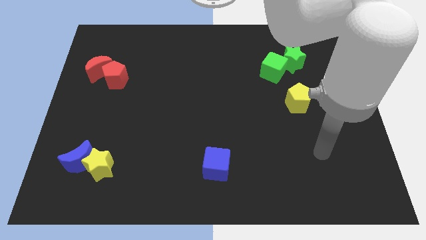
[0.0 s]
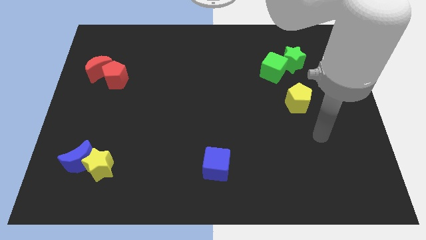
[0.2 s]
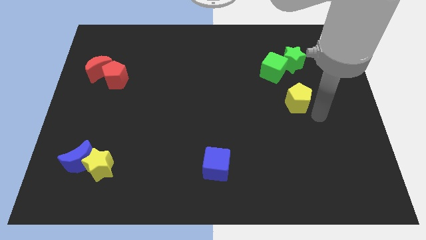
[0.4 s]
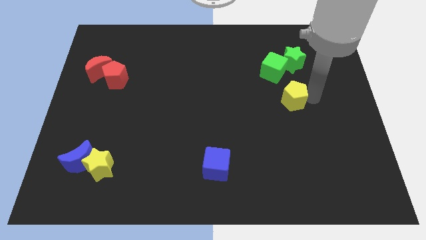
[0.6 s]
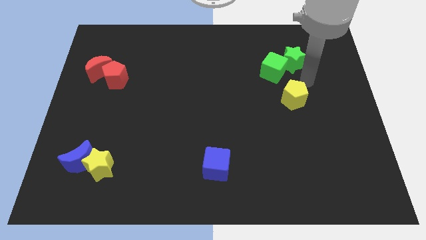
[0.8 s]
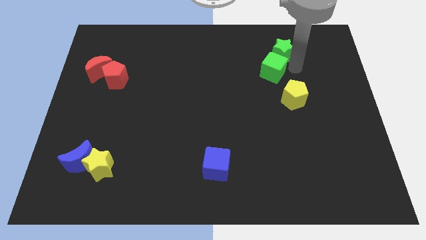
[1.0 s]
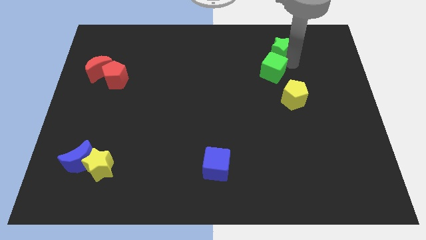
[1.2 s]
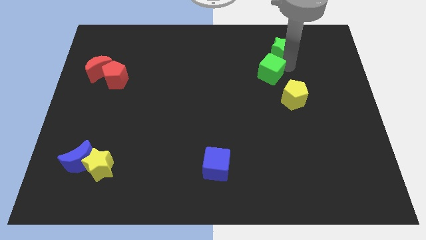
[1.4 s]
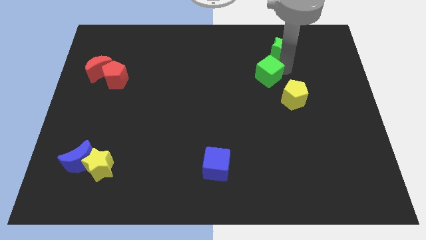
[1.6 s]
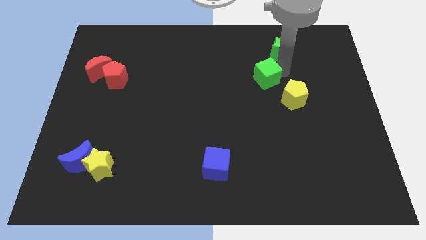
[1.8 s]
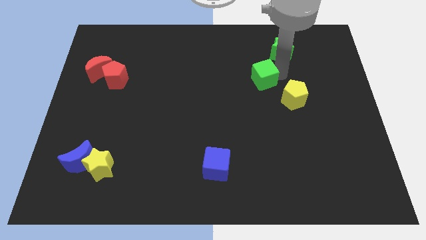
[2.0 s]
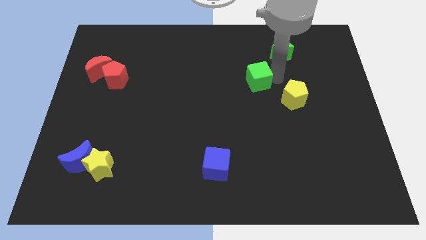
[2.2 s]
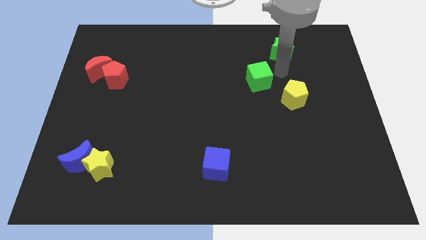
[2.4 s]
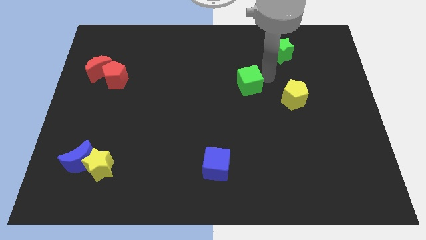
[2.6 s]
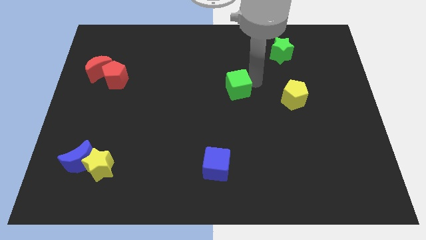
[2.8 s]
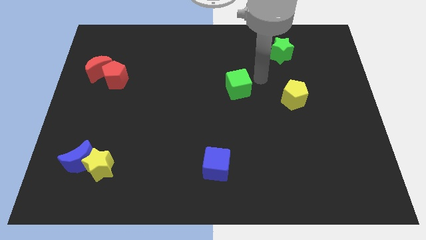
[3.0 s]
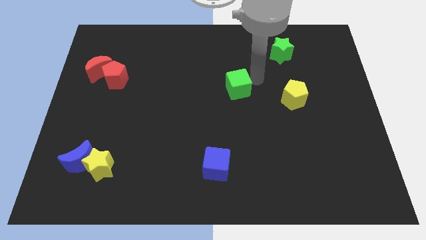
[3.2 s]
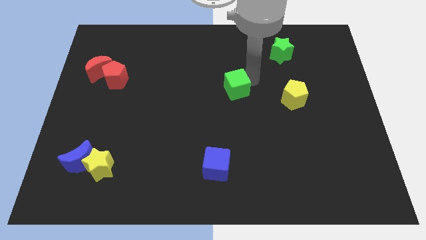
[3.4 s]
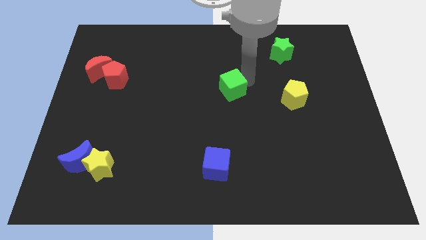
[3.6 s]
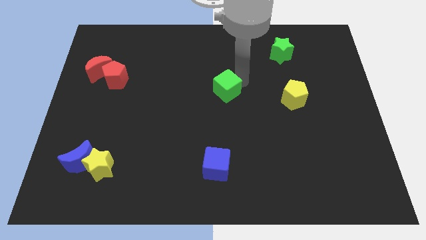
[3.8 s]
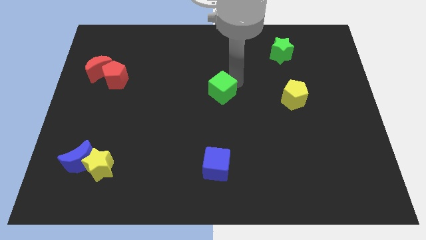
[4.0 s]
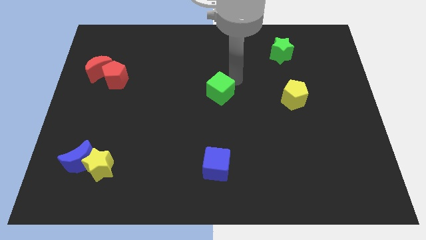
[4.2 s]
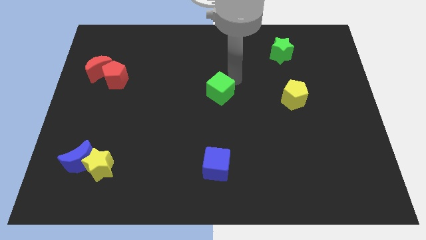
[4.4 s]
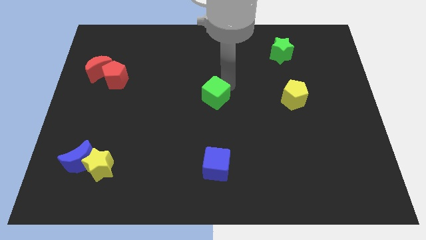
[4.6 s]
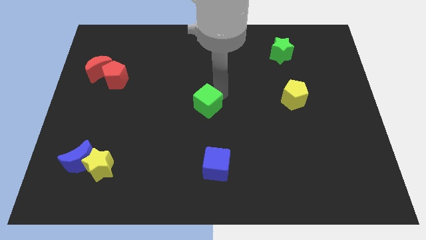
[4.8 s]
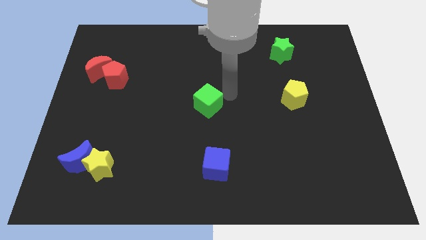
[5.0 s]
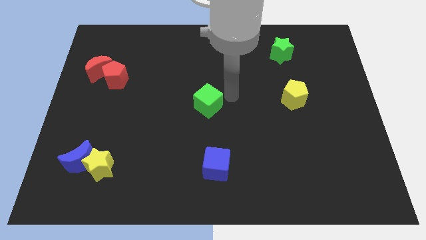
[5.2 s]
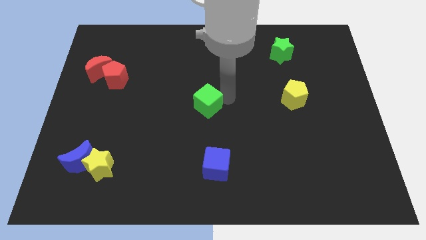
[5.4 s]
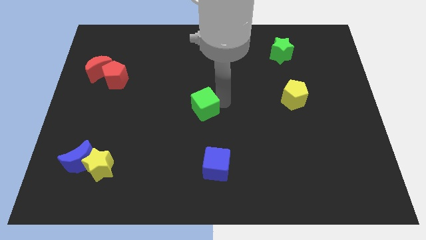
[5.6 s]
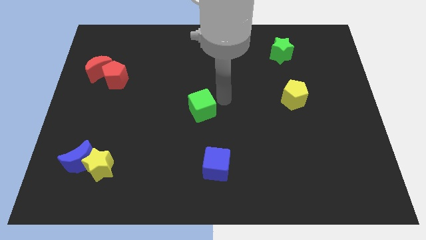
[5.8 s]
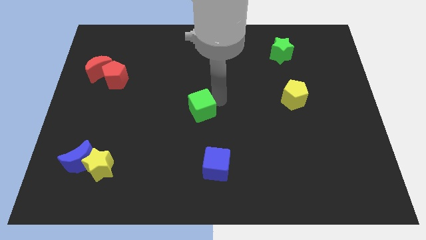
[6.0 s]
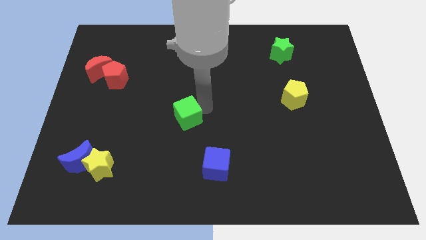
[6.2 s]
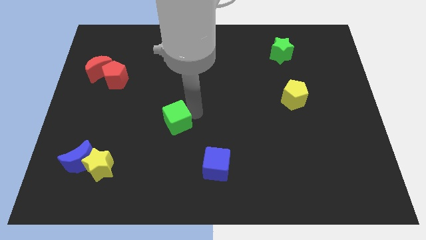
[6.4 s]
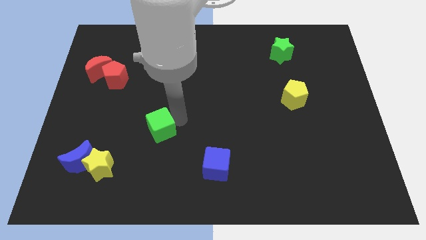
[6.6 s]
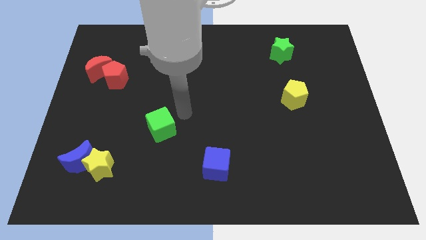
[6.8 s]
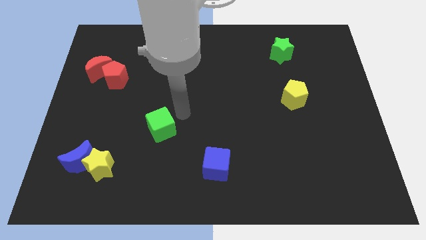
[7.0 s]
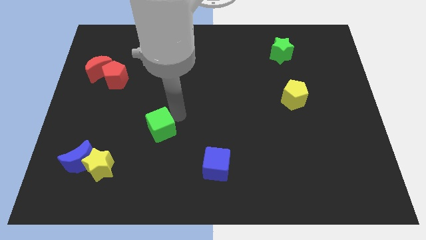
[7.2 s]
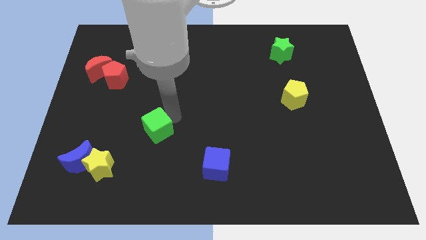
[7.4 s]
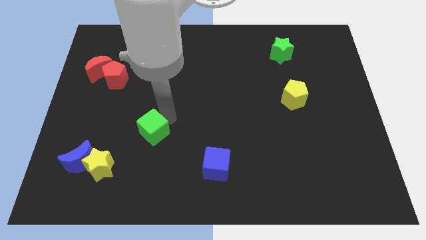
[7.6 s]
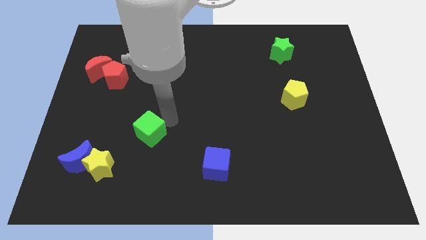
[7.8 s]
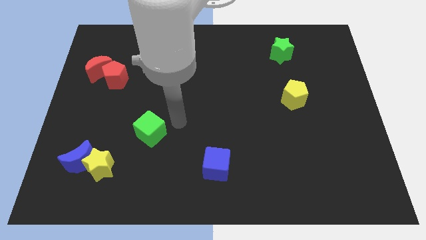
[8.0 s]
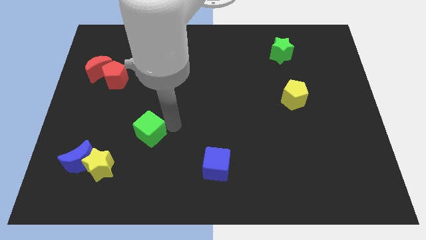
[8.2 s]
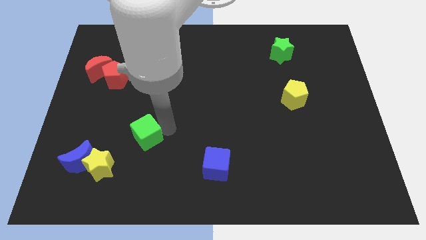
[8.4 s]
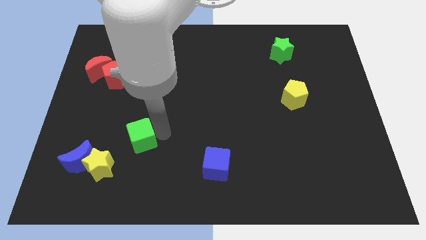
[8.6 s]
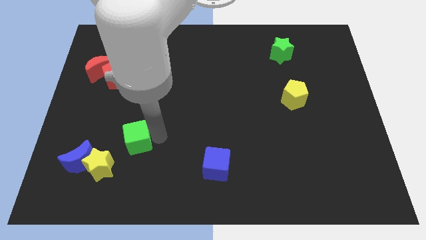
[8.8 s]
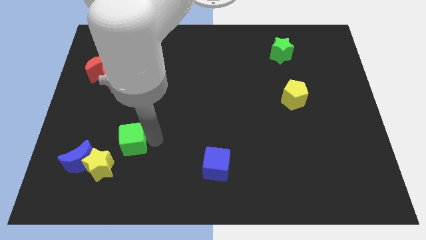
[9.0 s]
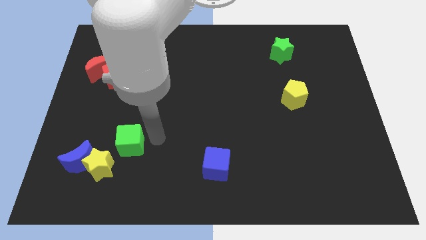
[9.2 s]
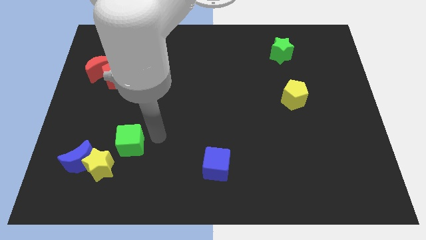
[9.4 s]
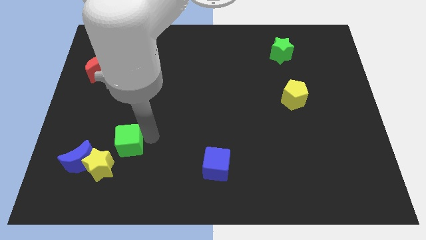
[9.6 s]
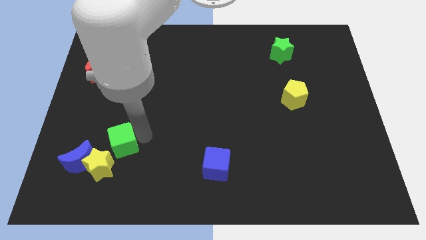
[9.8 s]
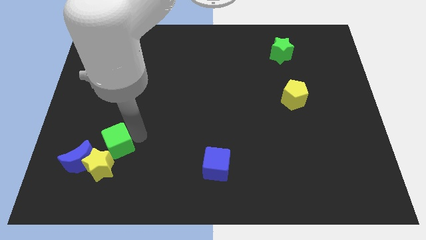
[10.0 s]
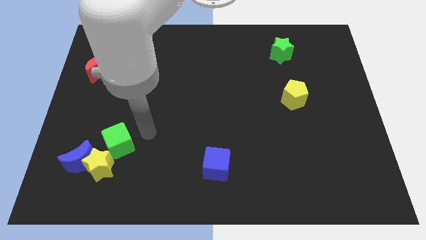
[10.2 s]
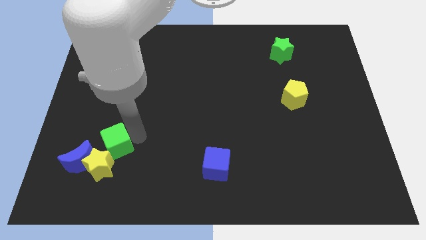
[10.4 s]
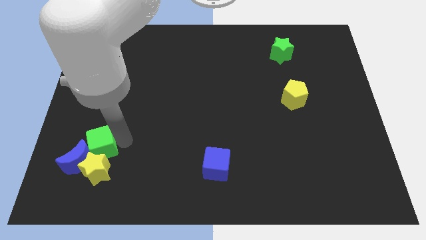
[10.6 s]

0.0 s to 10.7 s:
move the green cube next to the blue moon

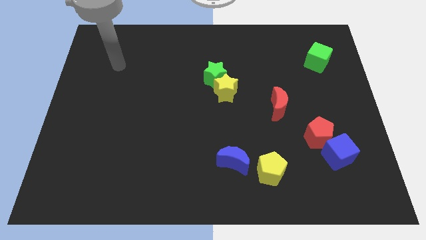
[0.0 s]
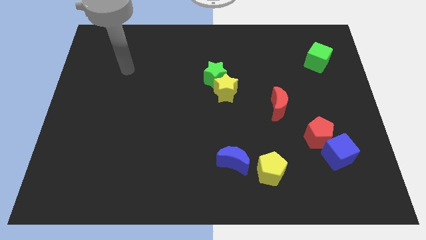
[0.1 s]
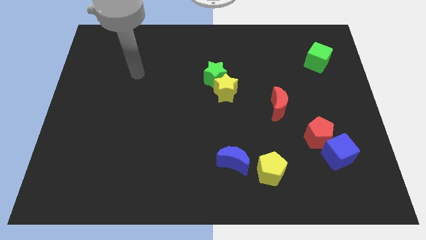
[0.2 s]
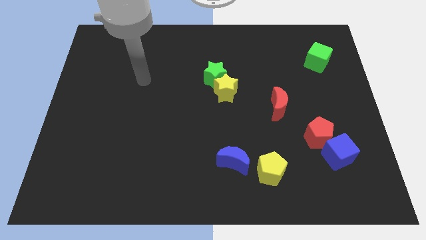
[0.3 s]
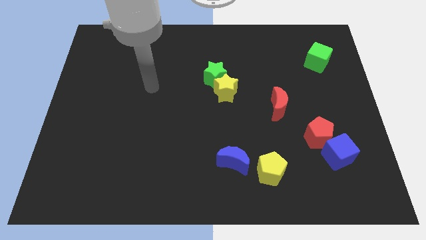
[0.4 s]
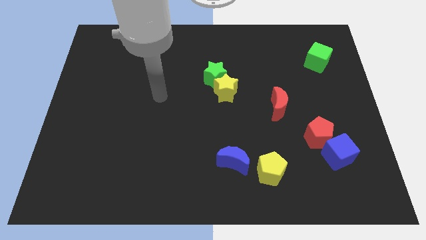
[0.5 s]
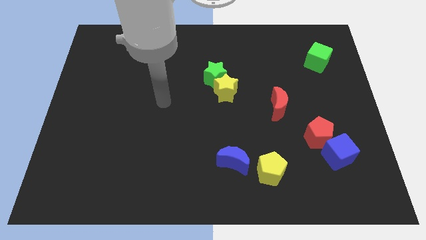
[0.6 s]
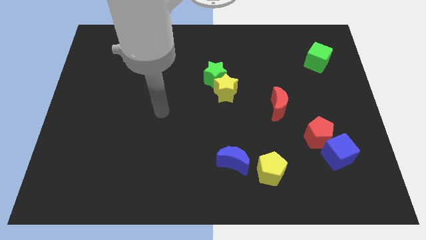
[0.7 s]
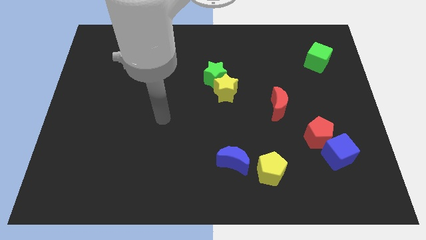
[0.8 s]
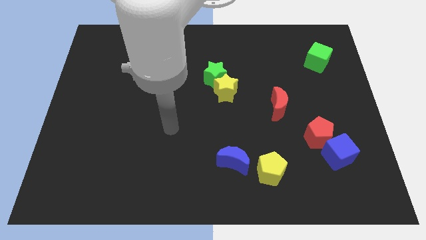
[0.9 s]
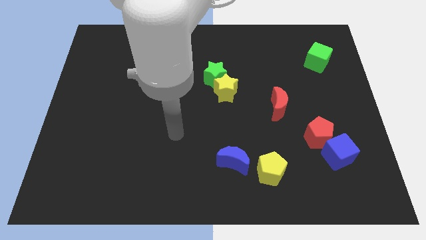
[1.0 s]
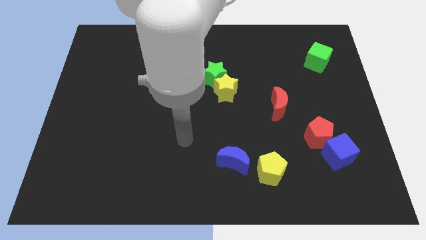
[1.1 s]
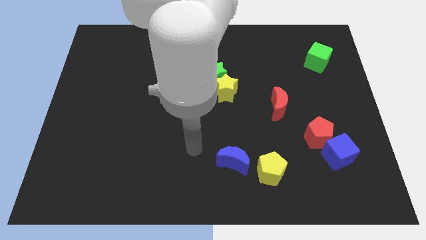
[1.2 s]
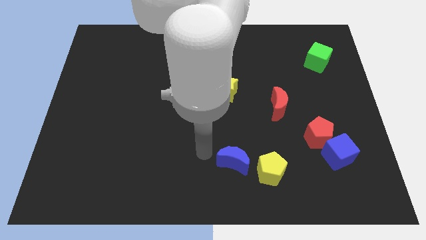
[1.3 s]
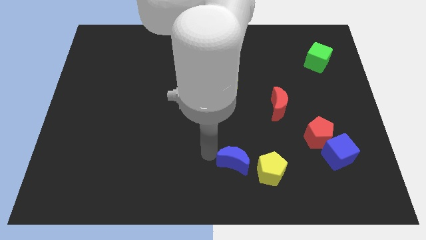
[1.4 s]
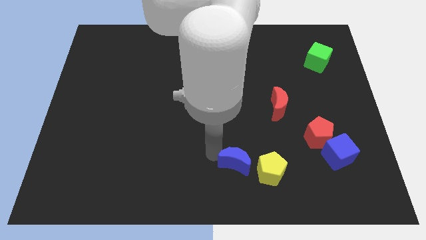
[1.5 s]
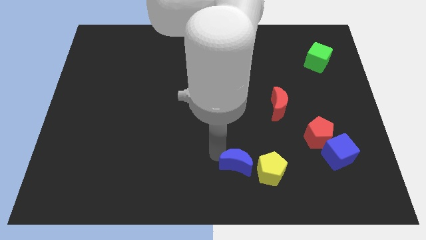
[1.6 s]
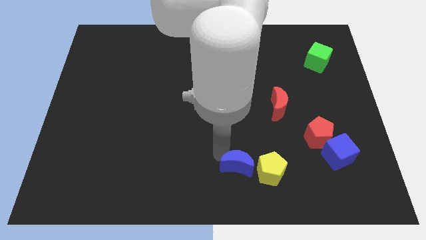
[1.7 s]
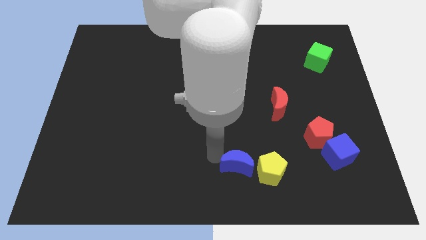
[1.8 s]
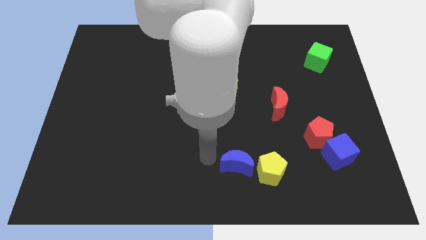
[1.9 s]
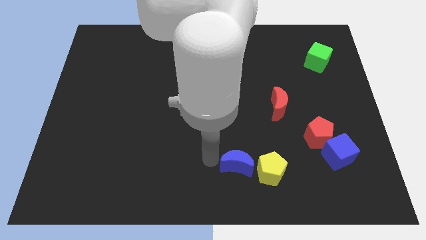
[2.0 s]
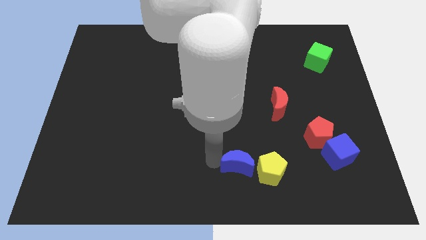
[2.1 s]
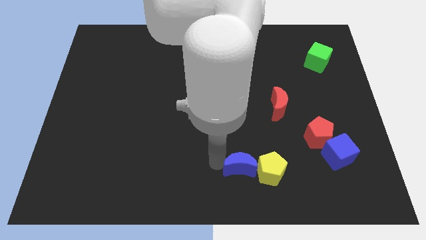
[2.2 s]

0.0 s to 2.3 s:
move the blue moon next to the yellow pentagon
